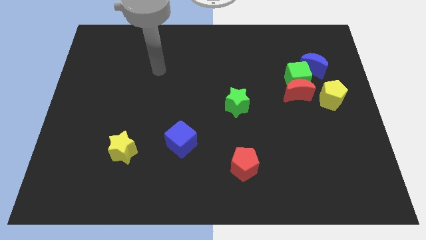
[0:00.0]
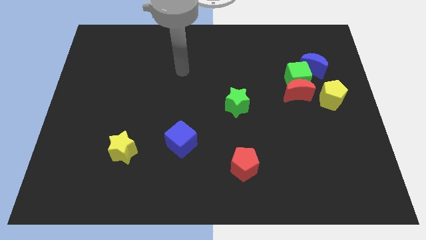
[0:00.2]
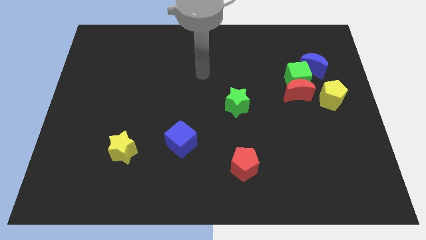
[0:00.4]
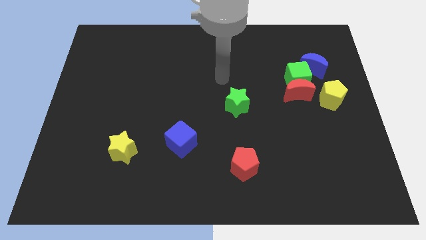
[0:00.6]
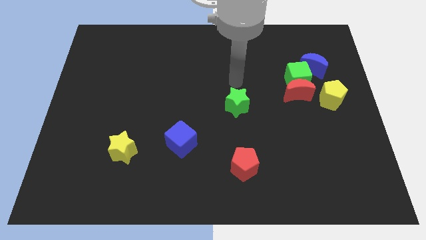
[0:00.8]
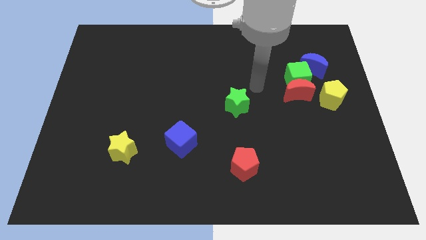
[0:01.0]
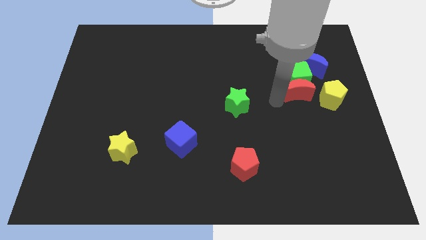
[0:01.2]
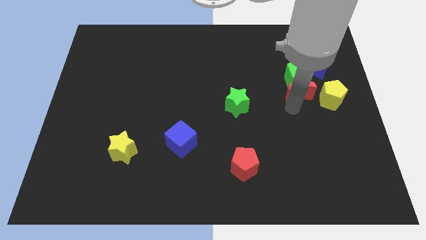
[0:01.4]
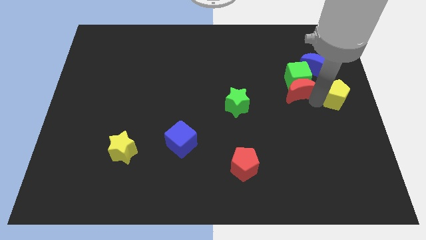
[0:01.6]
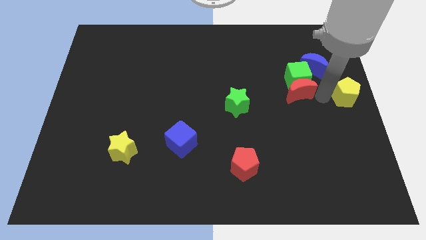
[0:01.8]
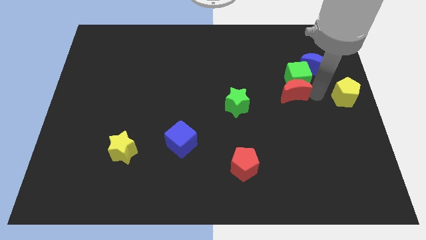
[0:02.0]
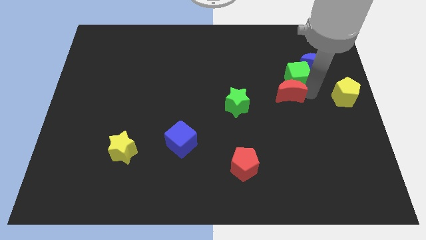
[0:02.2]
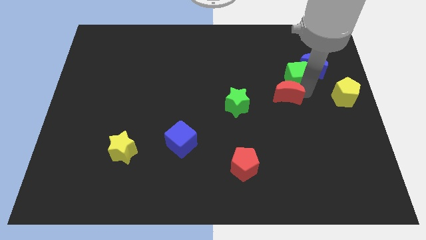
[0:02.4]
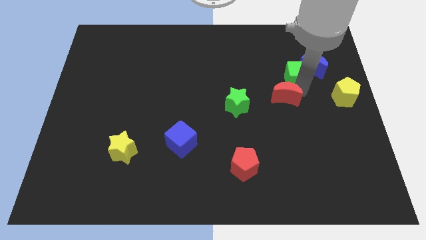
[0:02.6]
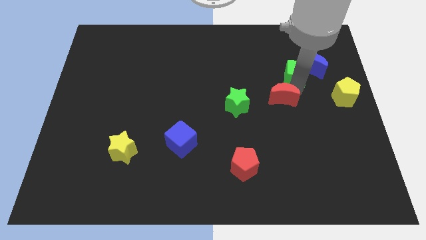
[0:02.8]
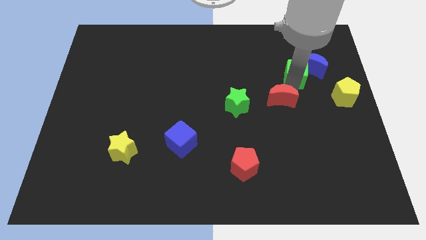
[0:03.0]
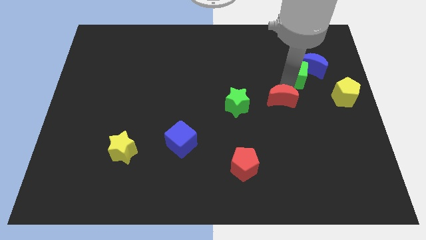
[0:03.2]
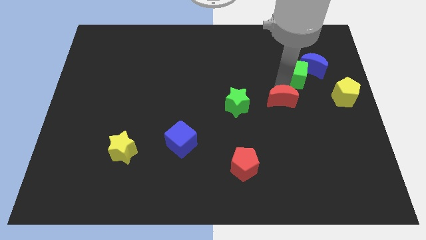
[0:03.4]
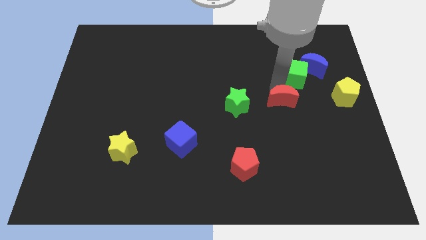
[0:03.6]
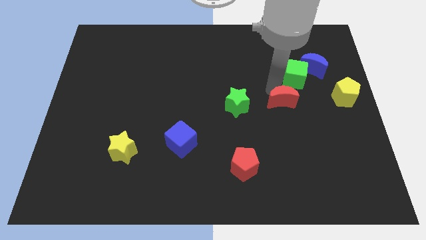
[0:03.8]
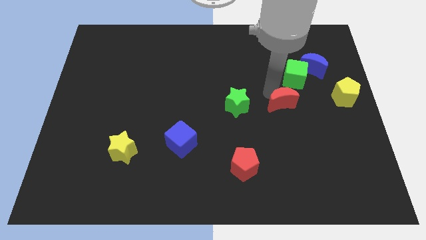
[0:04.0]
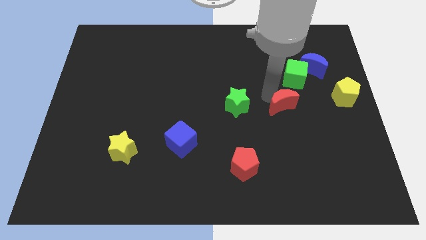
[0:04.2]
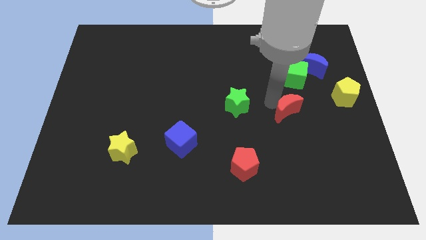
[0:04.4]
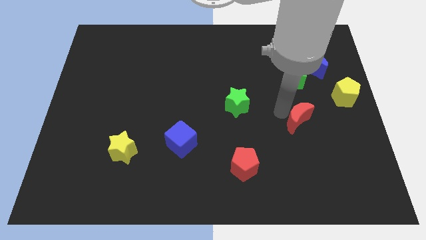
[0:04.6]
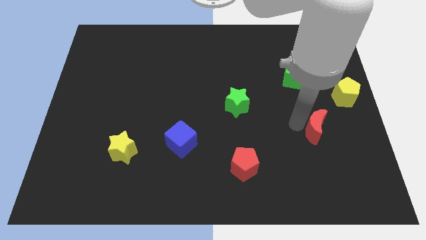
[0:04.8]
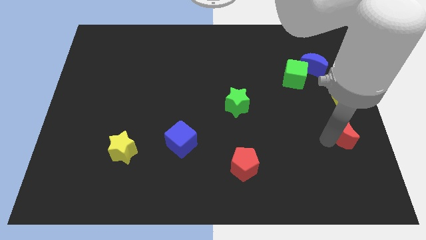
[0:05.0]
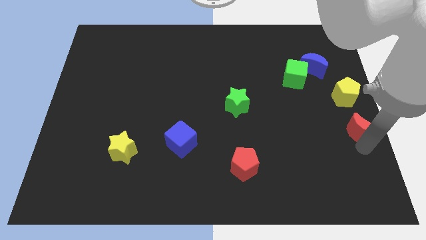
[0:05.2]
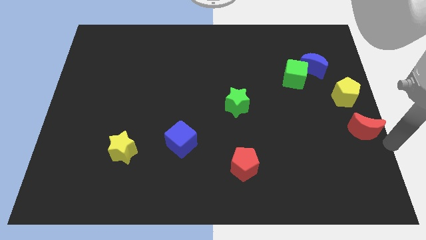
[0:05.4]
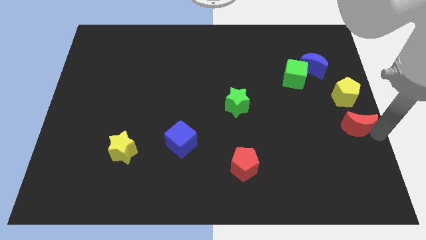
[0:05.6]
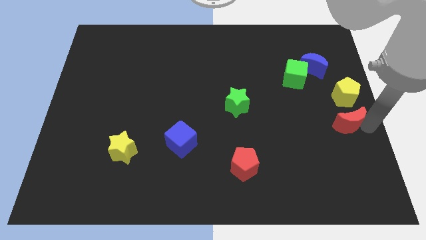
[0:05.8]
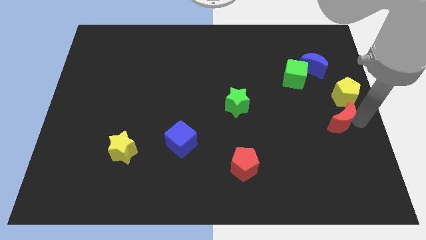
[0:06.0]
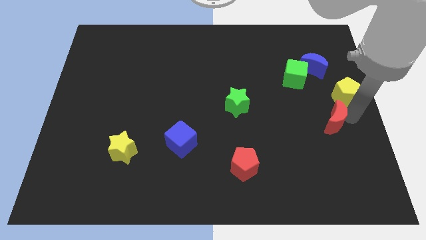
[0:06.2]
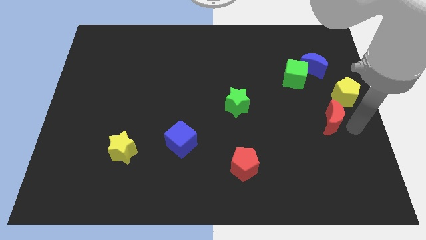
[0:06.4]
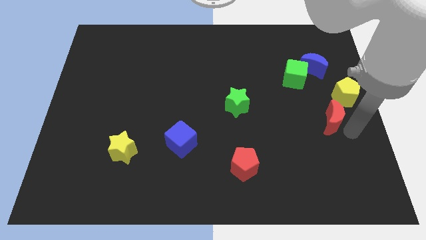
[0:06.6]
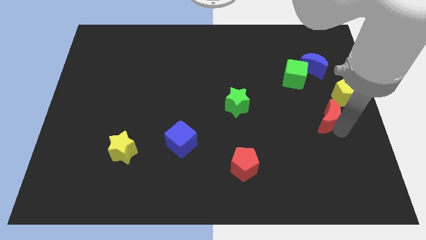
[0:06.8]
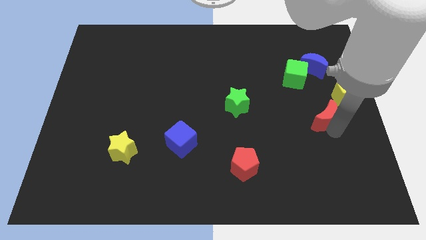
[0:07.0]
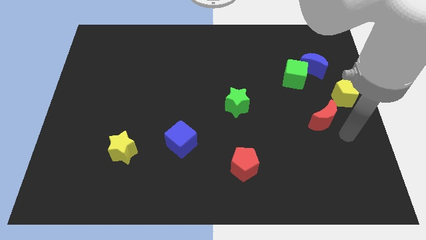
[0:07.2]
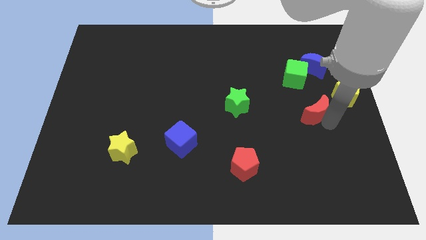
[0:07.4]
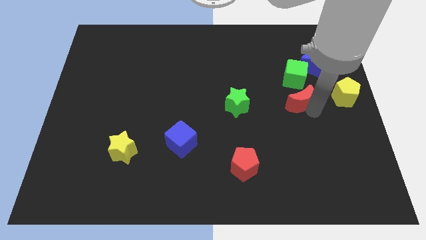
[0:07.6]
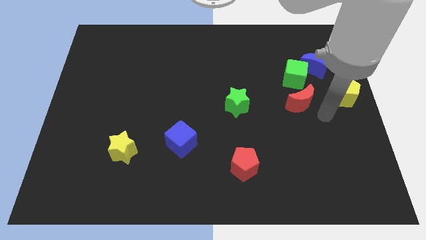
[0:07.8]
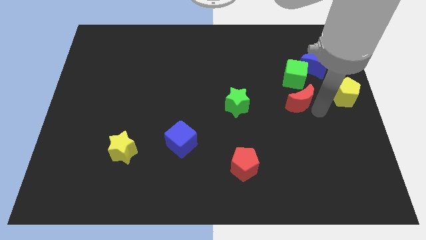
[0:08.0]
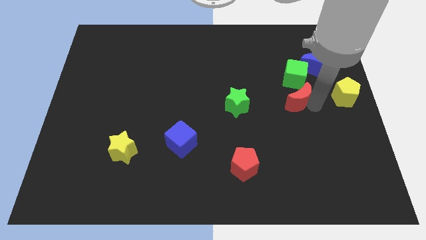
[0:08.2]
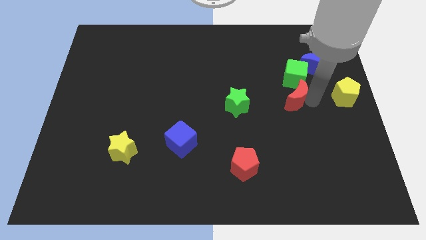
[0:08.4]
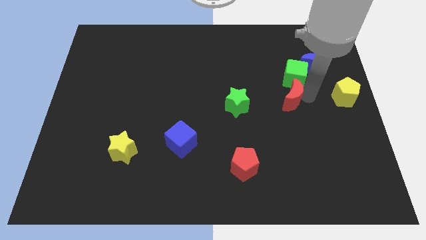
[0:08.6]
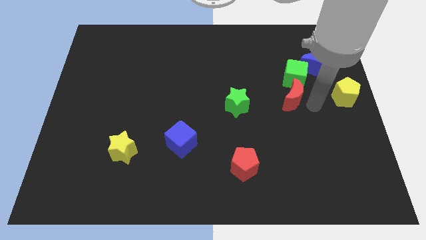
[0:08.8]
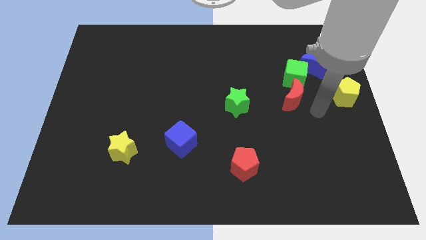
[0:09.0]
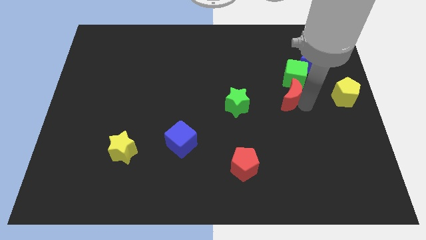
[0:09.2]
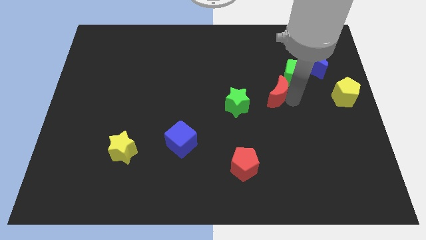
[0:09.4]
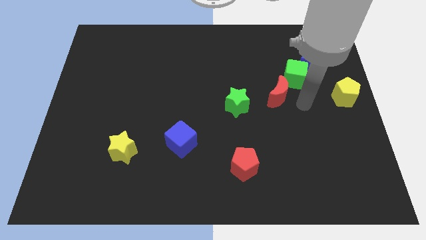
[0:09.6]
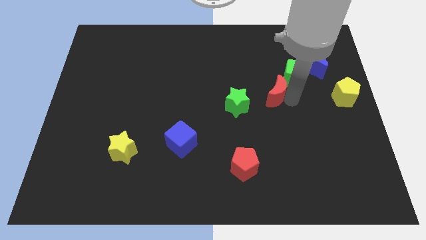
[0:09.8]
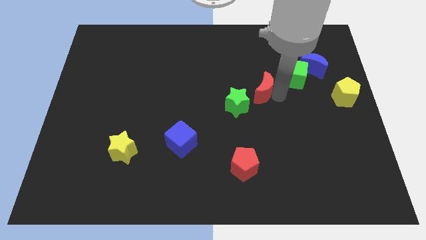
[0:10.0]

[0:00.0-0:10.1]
put the red moon to the center of the board

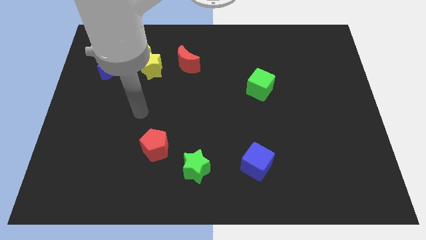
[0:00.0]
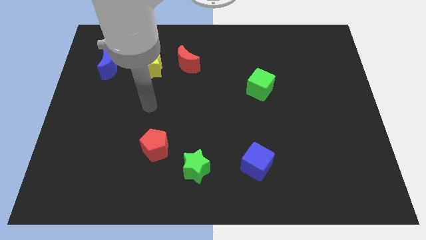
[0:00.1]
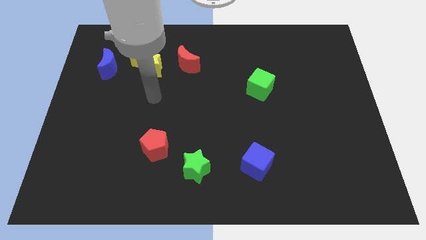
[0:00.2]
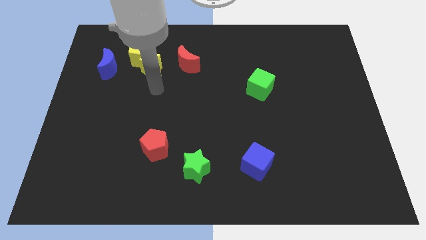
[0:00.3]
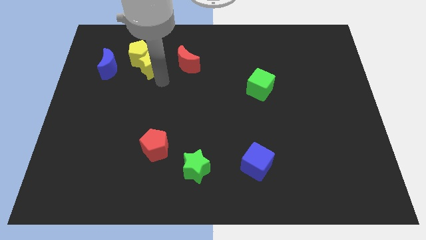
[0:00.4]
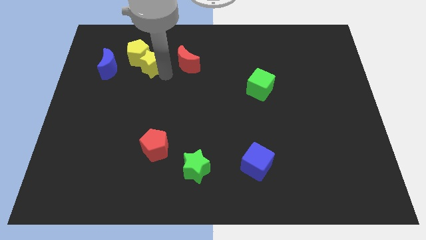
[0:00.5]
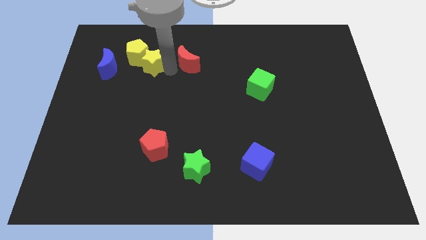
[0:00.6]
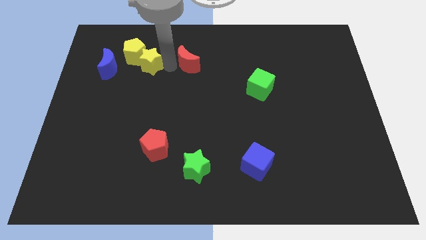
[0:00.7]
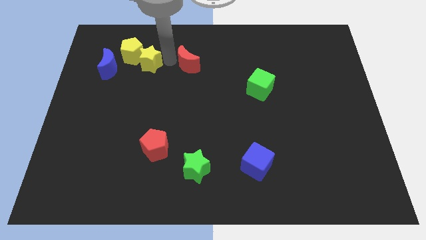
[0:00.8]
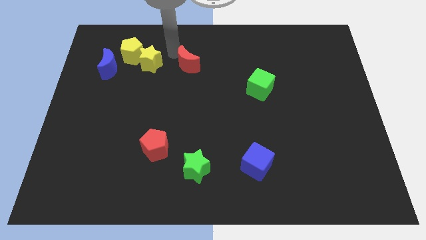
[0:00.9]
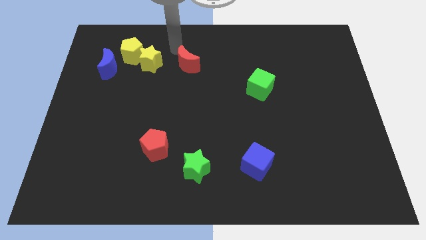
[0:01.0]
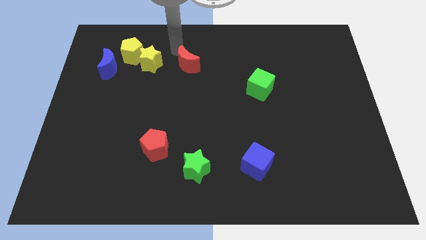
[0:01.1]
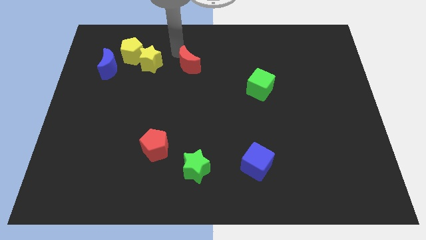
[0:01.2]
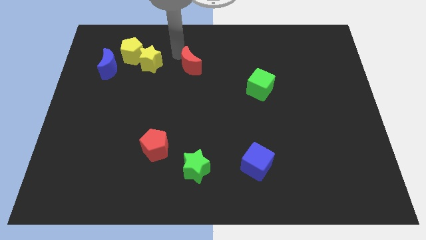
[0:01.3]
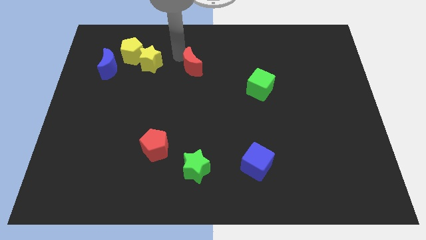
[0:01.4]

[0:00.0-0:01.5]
slide the red moon to the middle of the board
